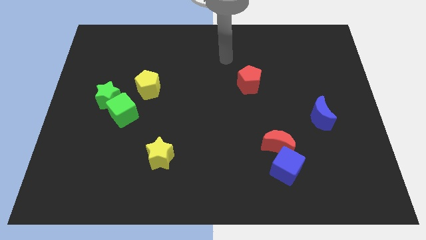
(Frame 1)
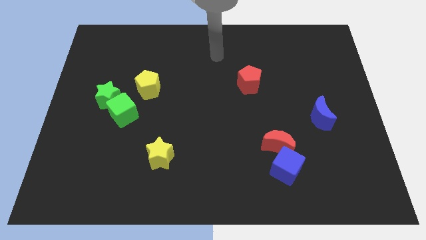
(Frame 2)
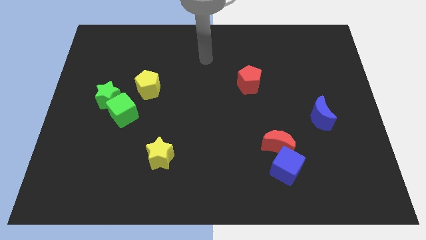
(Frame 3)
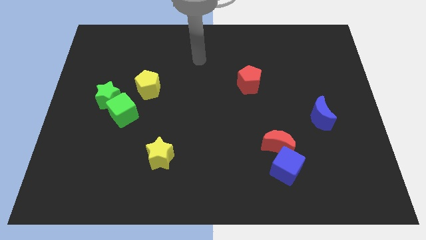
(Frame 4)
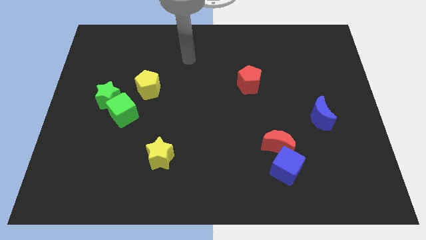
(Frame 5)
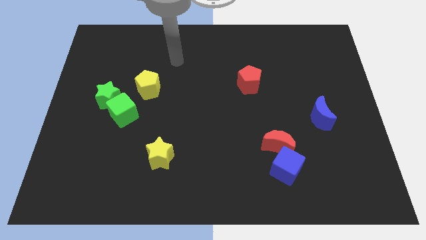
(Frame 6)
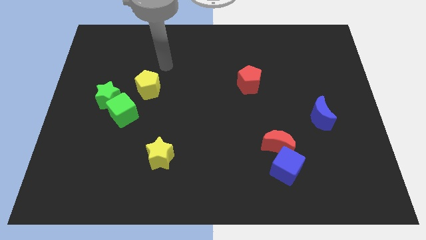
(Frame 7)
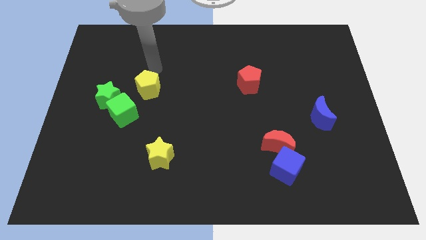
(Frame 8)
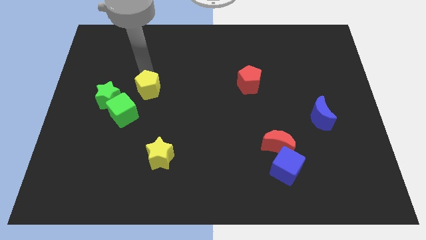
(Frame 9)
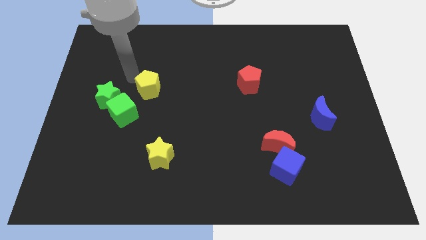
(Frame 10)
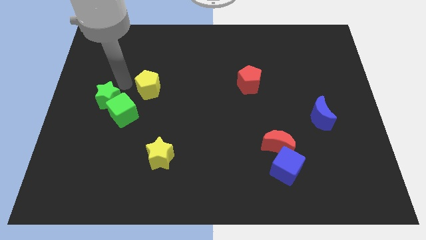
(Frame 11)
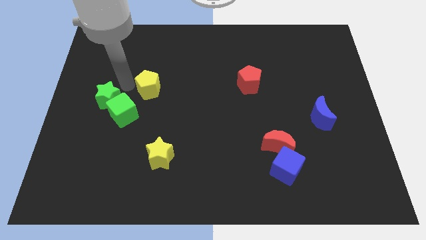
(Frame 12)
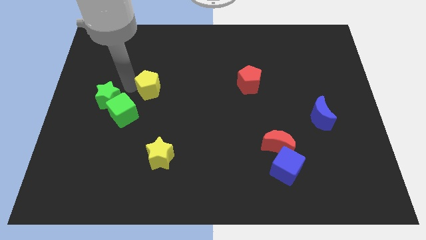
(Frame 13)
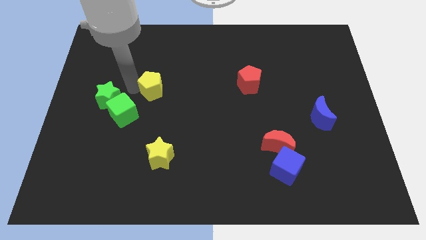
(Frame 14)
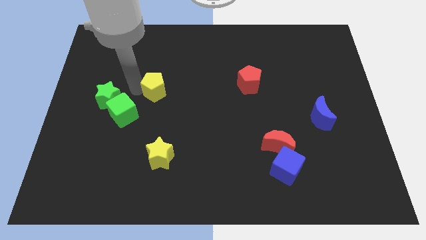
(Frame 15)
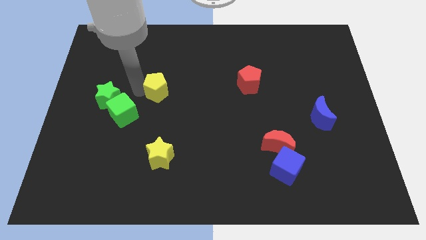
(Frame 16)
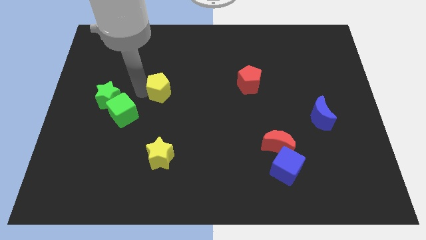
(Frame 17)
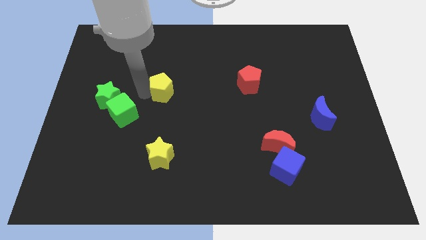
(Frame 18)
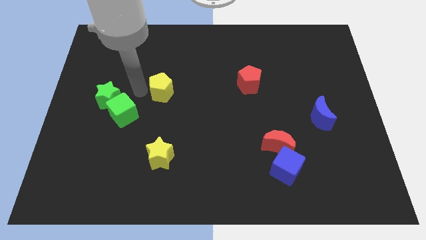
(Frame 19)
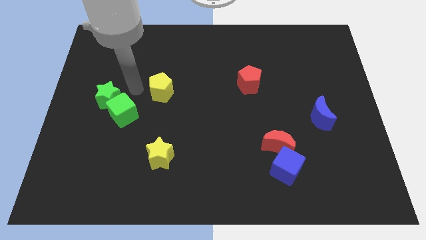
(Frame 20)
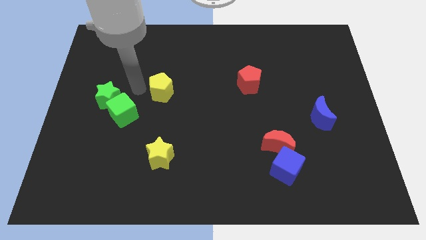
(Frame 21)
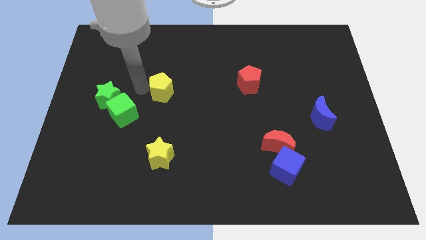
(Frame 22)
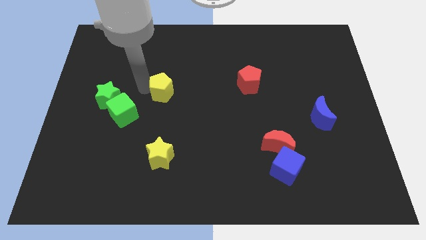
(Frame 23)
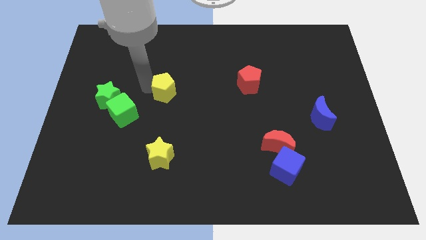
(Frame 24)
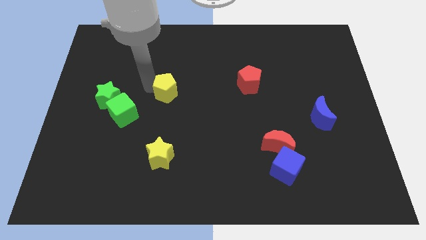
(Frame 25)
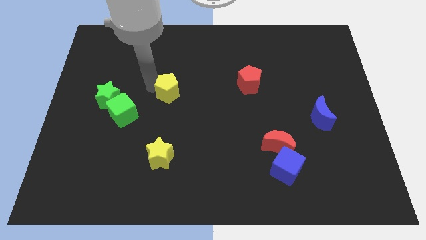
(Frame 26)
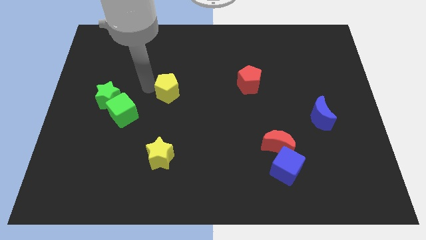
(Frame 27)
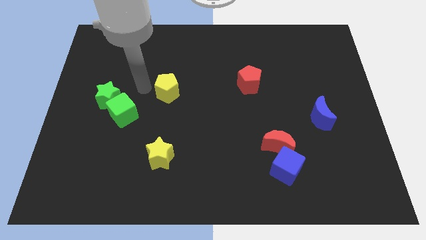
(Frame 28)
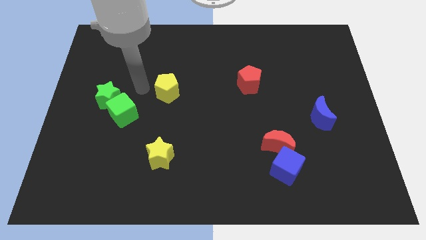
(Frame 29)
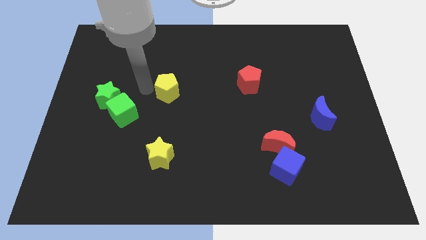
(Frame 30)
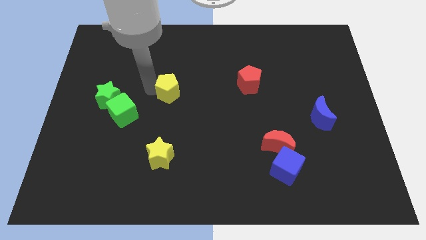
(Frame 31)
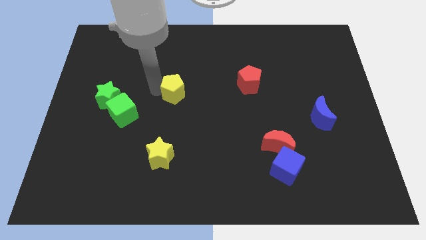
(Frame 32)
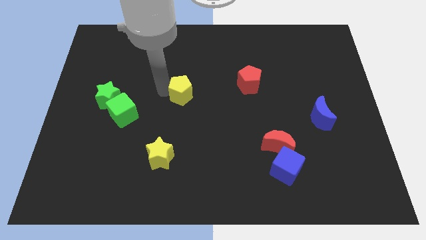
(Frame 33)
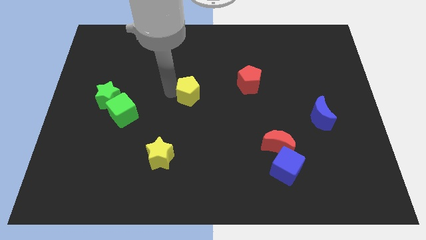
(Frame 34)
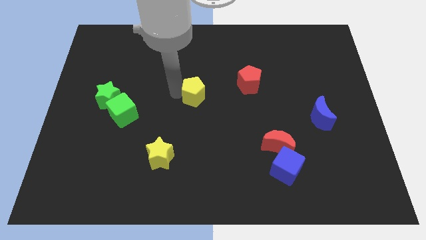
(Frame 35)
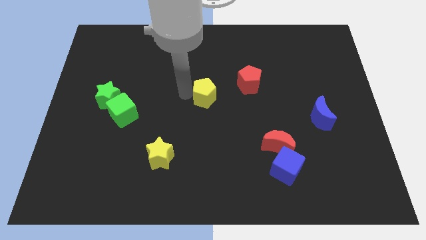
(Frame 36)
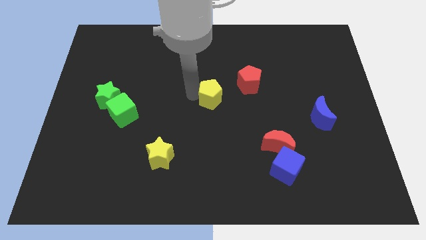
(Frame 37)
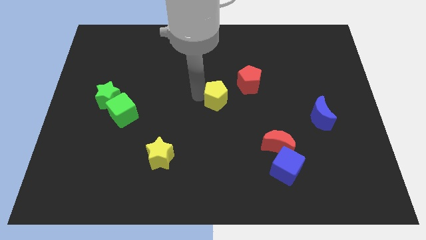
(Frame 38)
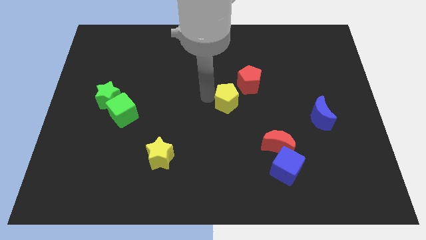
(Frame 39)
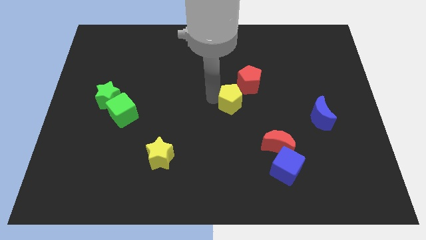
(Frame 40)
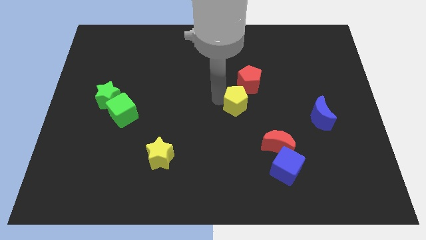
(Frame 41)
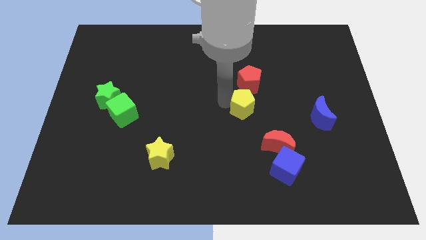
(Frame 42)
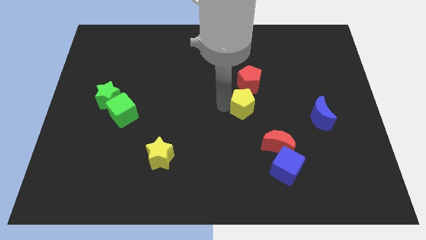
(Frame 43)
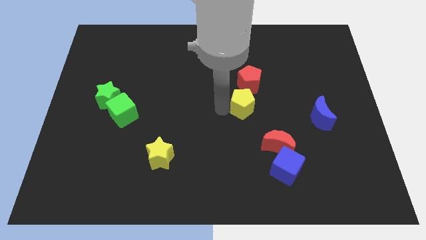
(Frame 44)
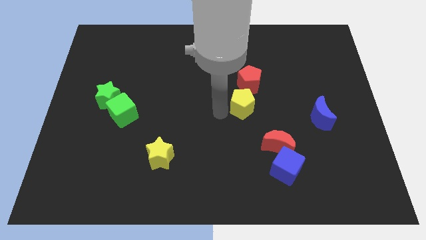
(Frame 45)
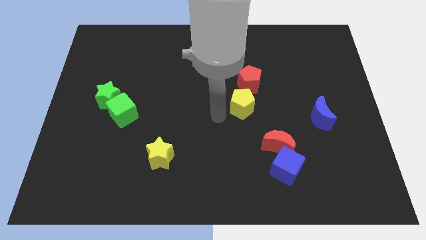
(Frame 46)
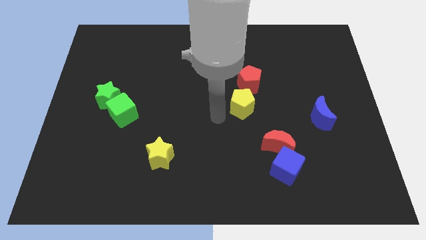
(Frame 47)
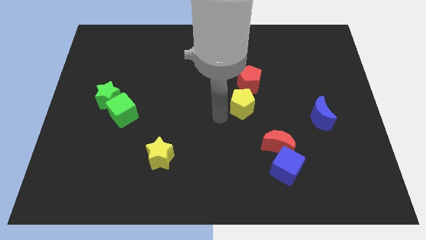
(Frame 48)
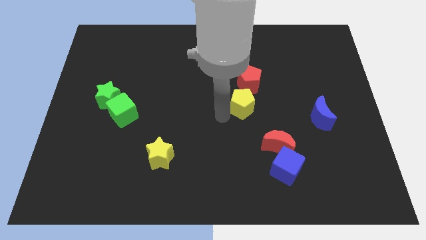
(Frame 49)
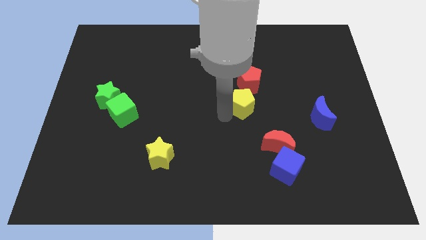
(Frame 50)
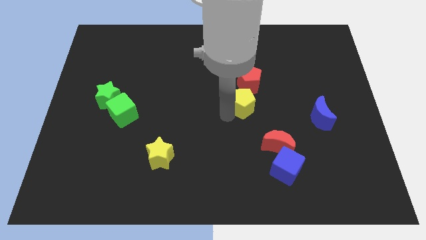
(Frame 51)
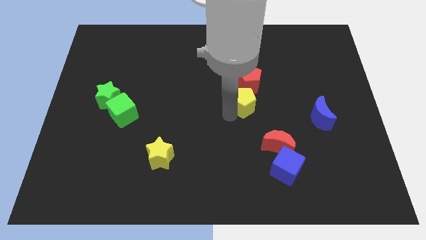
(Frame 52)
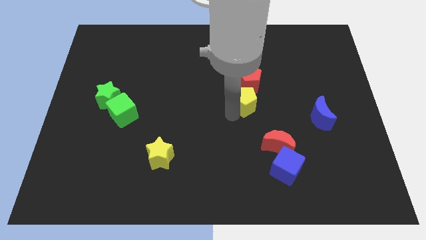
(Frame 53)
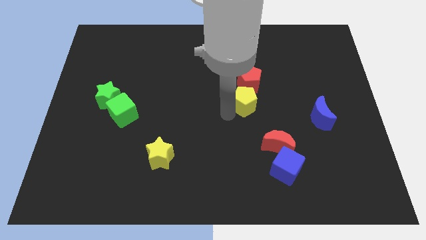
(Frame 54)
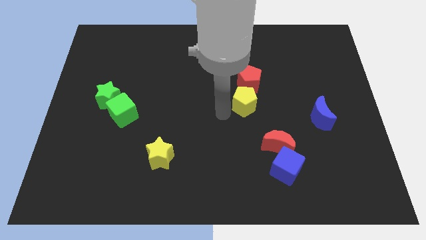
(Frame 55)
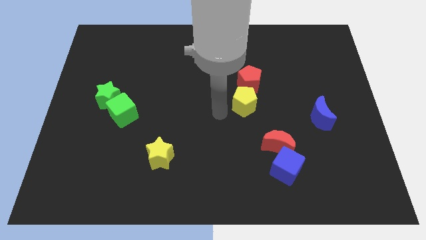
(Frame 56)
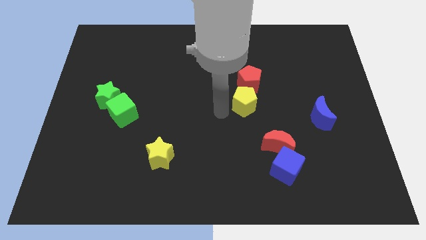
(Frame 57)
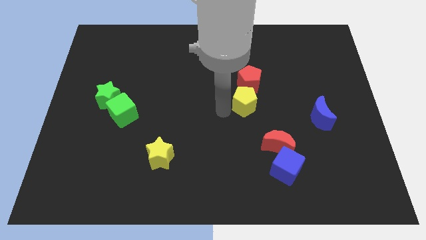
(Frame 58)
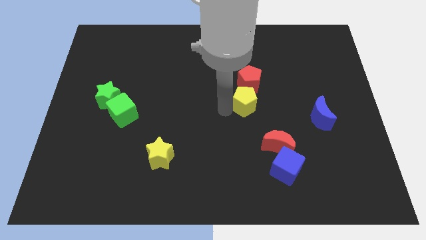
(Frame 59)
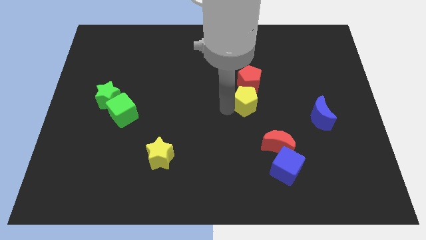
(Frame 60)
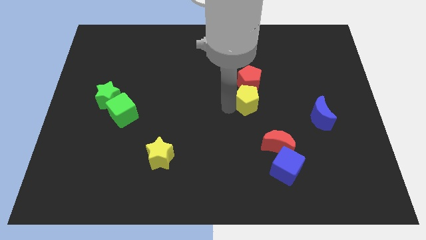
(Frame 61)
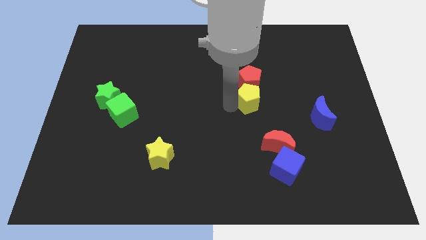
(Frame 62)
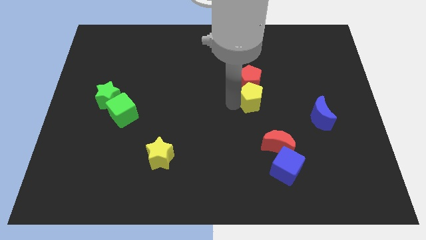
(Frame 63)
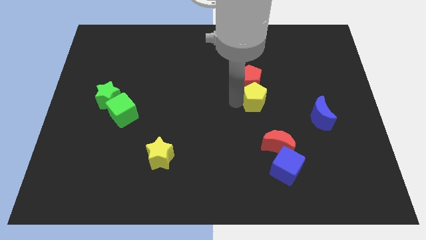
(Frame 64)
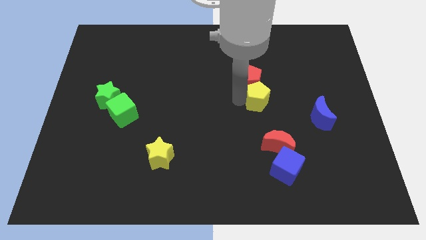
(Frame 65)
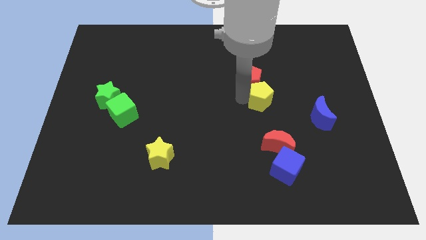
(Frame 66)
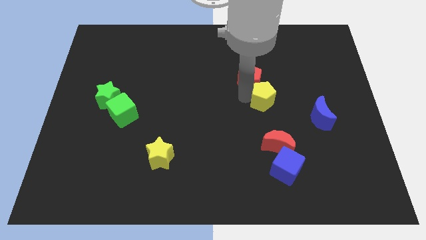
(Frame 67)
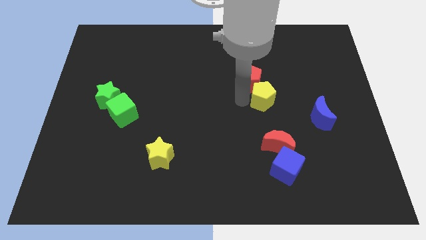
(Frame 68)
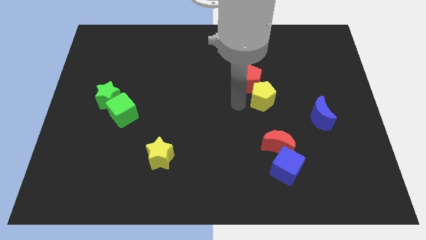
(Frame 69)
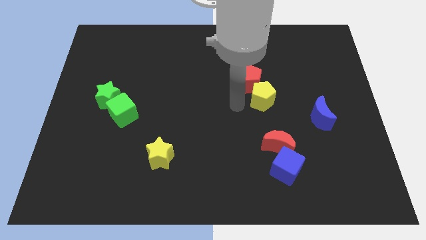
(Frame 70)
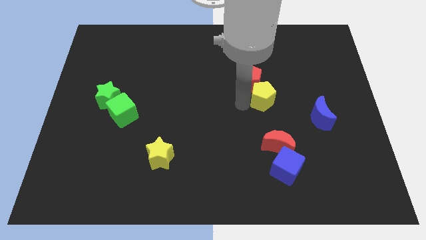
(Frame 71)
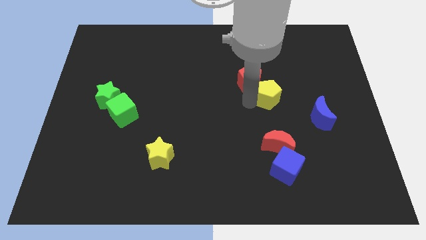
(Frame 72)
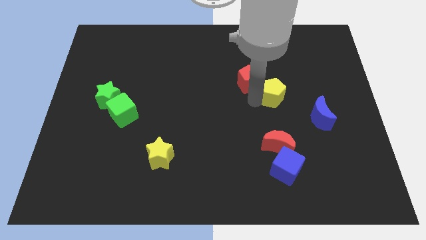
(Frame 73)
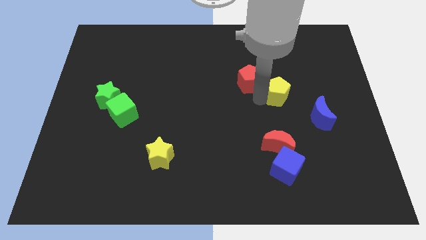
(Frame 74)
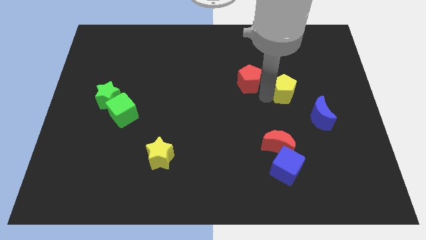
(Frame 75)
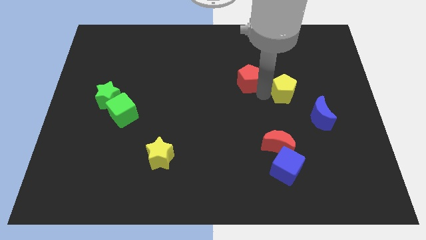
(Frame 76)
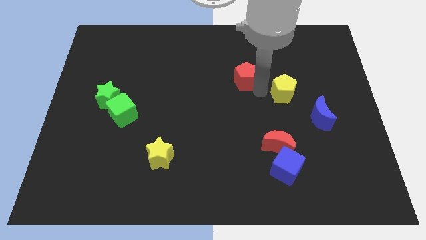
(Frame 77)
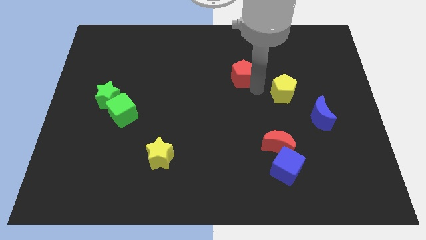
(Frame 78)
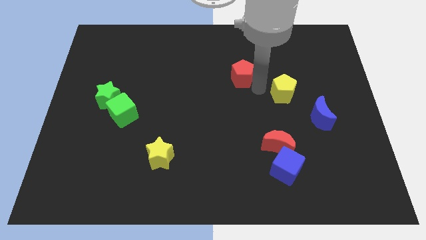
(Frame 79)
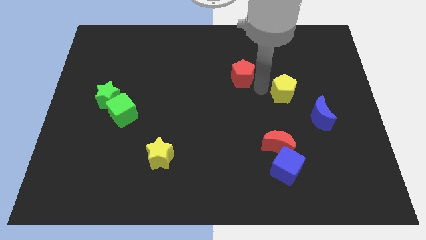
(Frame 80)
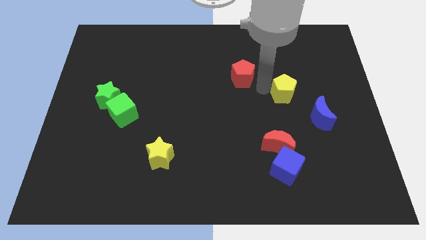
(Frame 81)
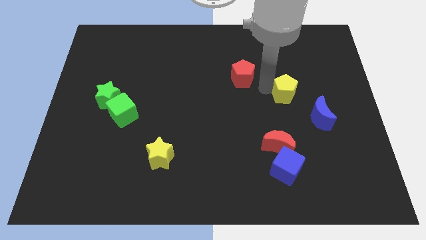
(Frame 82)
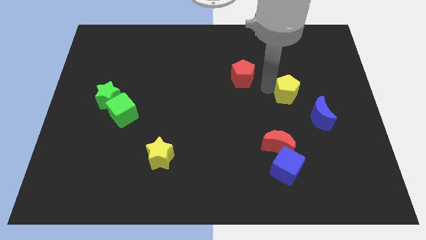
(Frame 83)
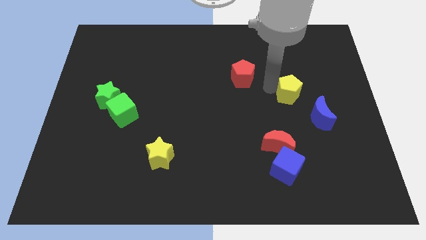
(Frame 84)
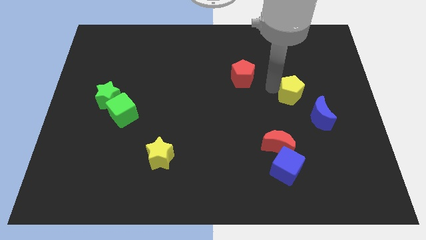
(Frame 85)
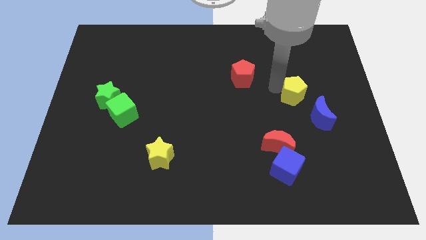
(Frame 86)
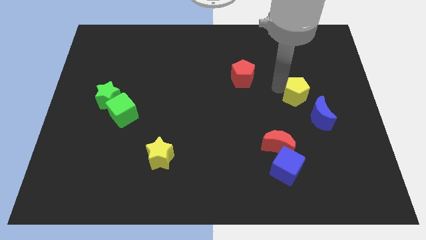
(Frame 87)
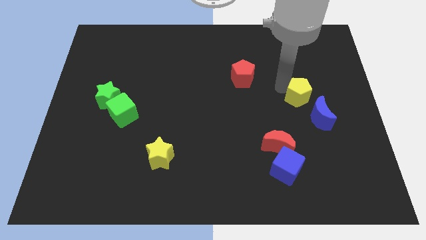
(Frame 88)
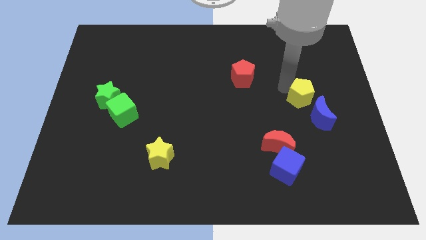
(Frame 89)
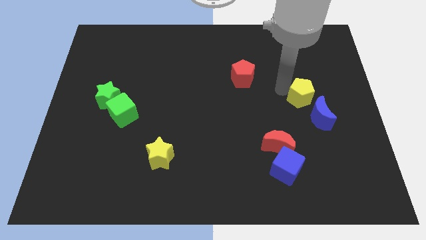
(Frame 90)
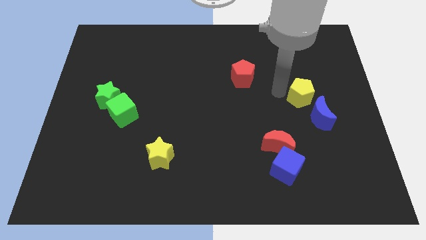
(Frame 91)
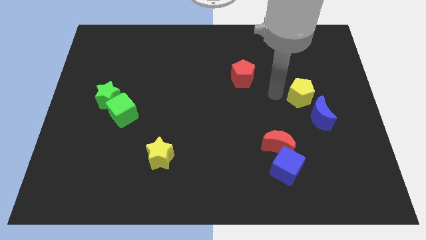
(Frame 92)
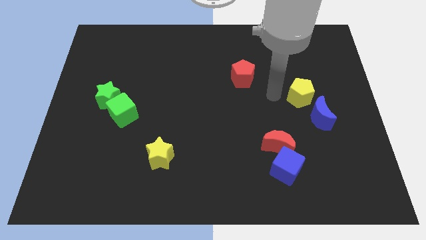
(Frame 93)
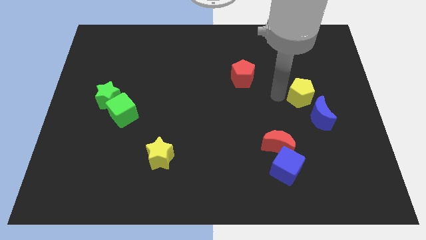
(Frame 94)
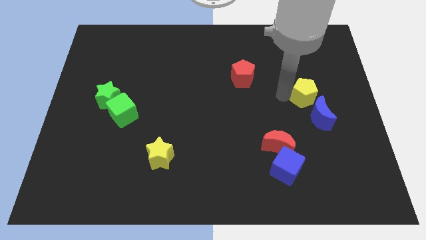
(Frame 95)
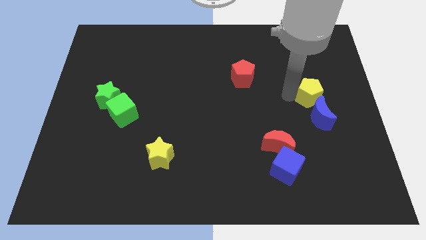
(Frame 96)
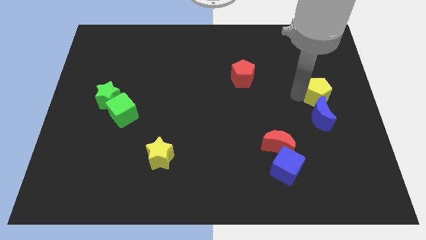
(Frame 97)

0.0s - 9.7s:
put the yellow pentagon to the center right
